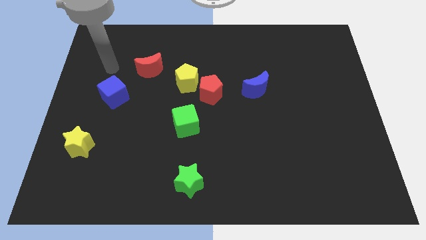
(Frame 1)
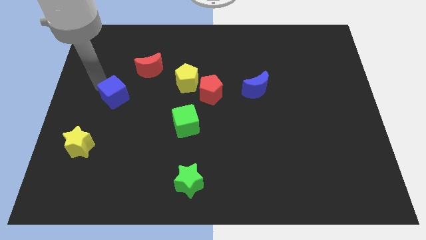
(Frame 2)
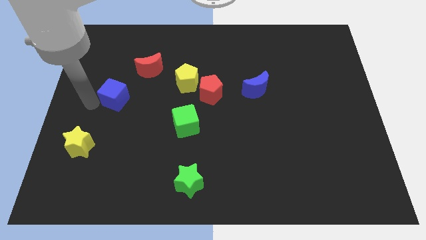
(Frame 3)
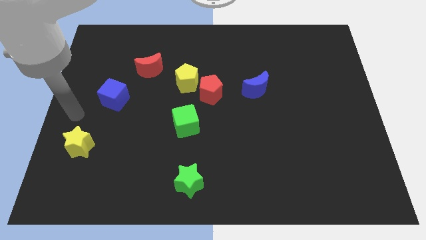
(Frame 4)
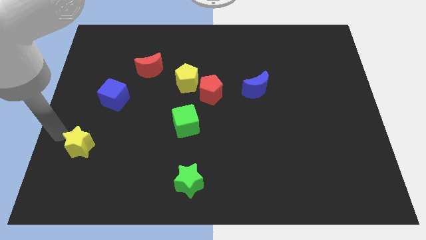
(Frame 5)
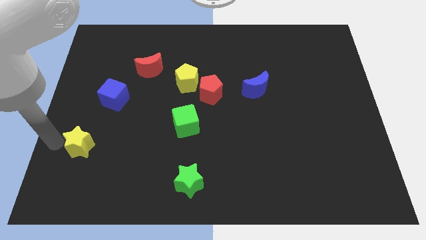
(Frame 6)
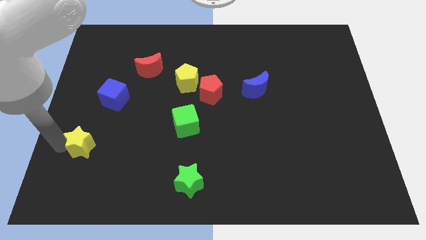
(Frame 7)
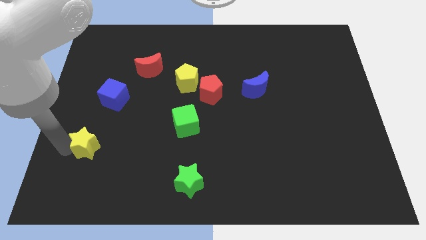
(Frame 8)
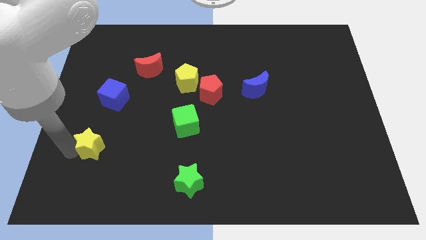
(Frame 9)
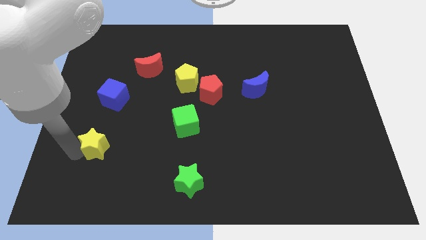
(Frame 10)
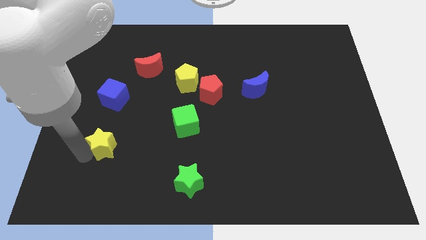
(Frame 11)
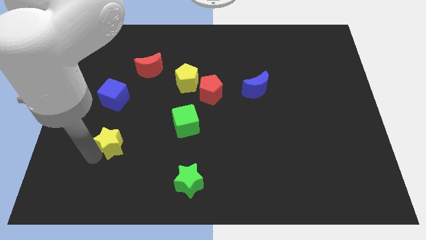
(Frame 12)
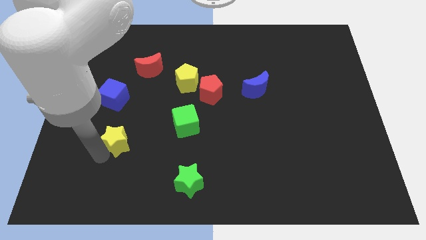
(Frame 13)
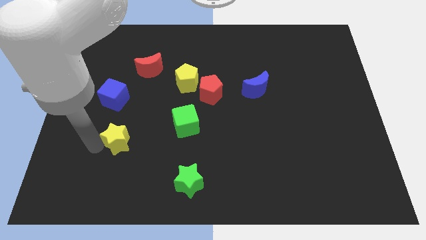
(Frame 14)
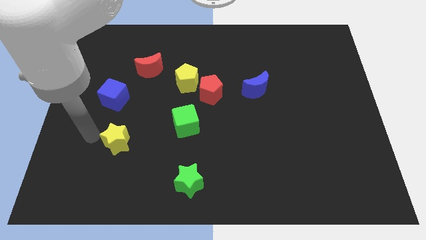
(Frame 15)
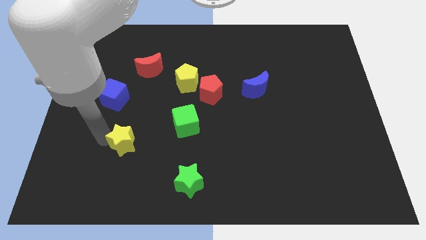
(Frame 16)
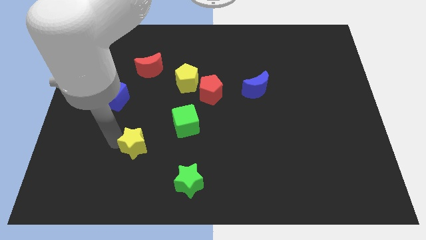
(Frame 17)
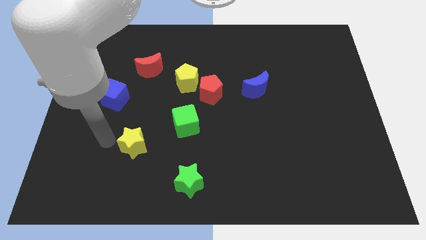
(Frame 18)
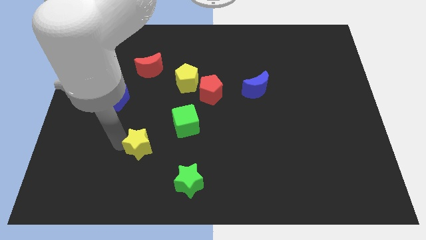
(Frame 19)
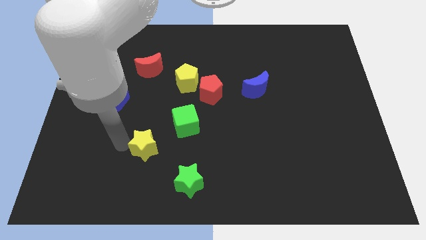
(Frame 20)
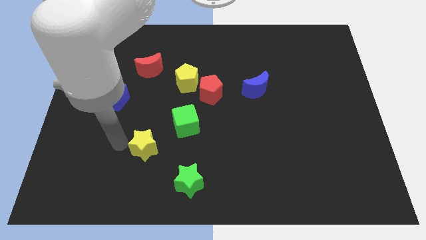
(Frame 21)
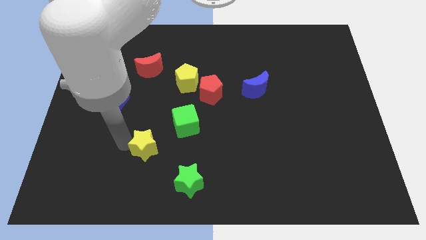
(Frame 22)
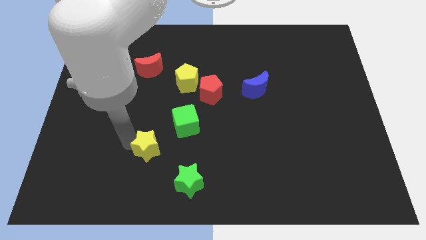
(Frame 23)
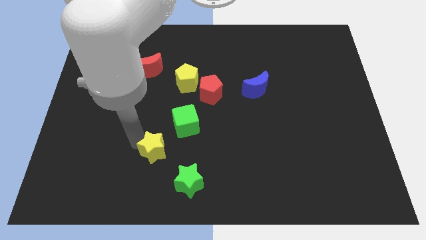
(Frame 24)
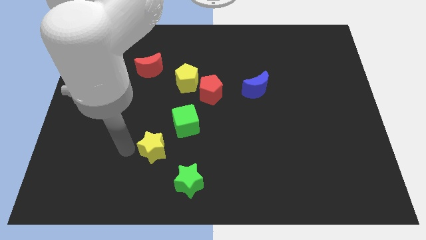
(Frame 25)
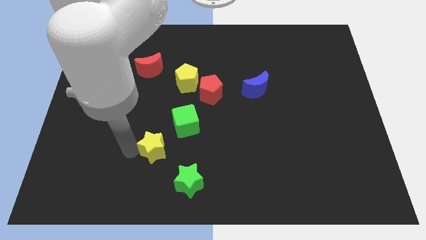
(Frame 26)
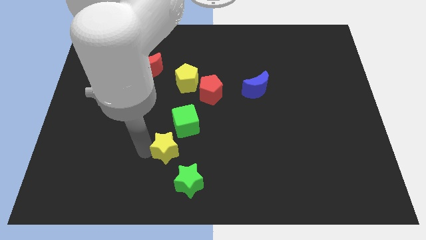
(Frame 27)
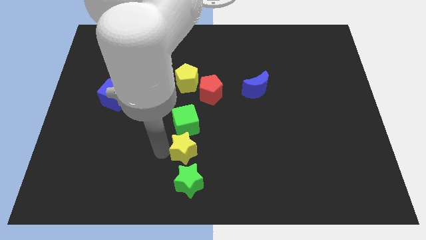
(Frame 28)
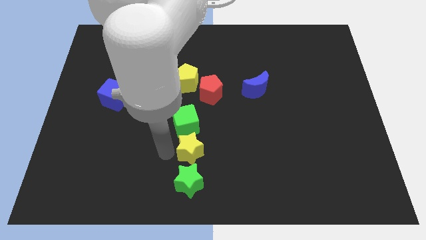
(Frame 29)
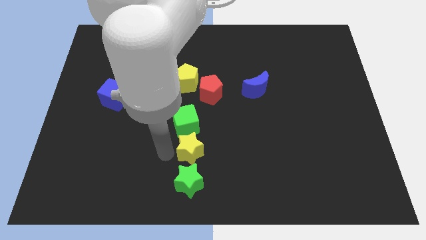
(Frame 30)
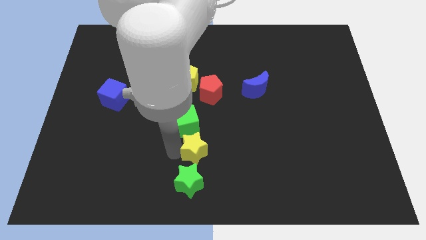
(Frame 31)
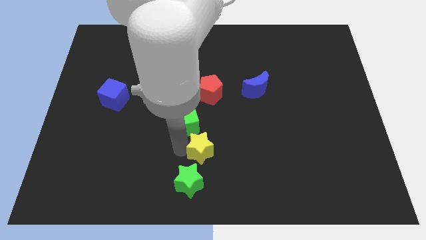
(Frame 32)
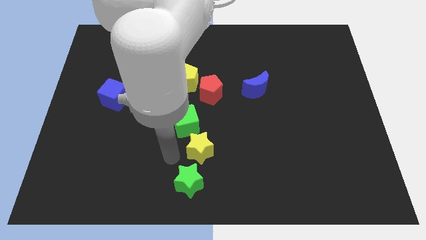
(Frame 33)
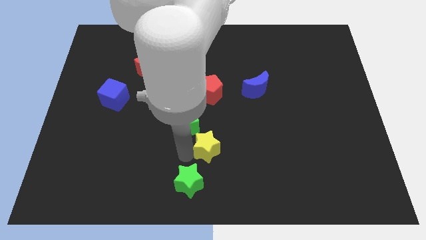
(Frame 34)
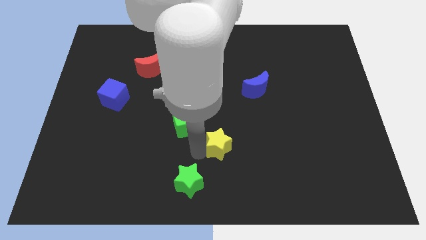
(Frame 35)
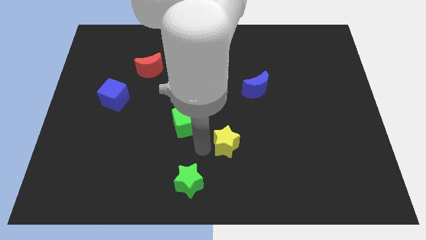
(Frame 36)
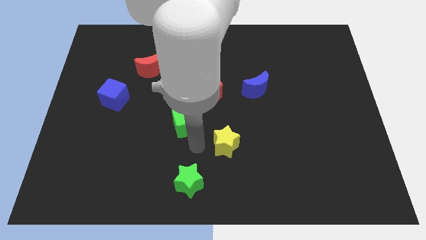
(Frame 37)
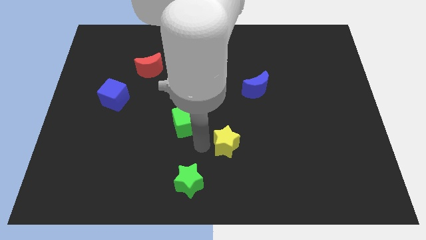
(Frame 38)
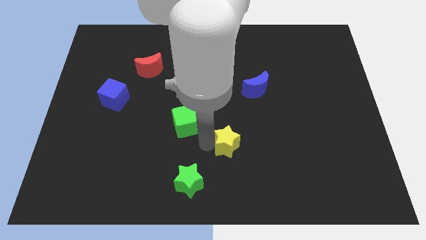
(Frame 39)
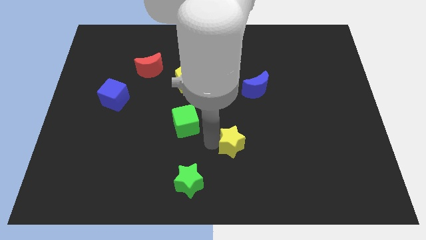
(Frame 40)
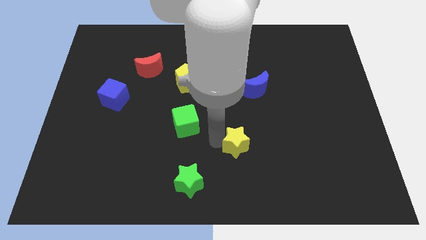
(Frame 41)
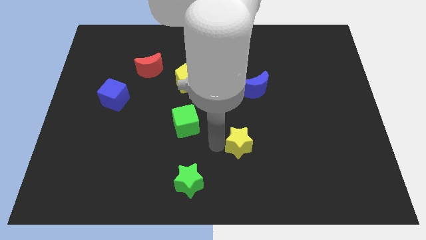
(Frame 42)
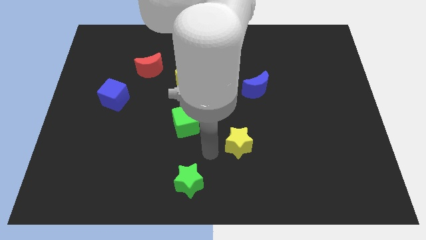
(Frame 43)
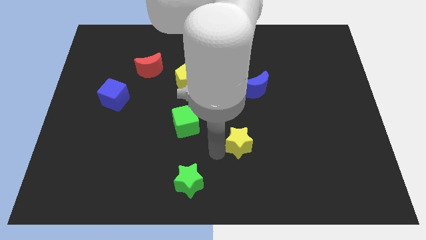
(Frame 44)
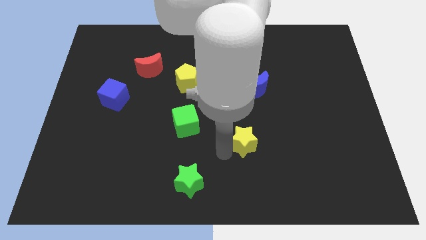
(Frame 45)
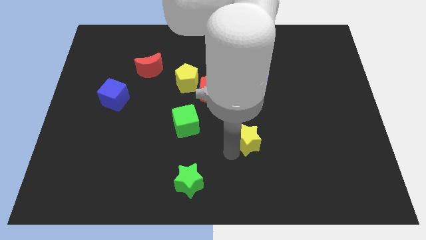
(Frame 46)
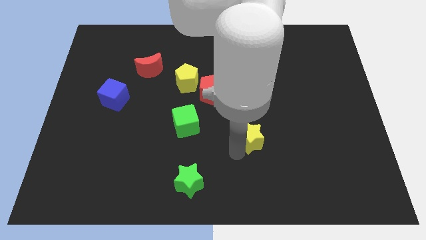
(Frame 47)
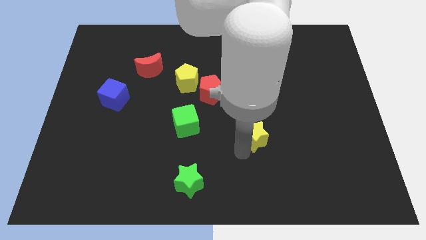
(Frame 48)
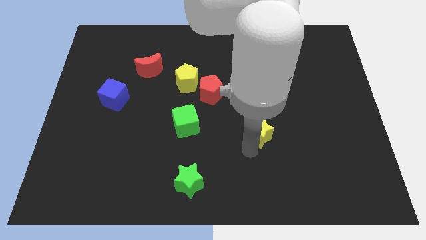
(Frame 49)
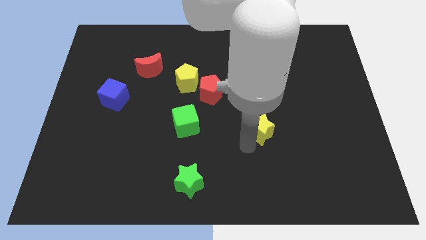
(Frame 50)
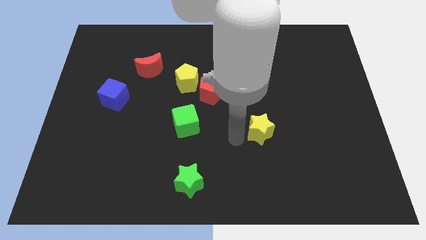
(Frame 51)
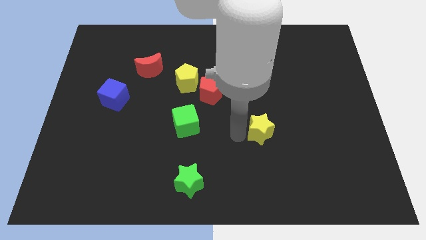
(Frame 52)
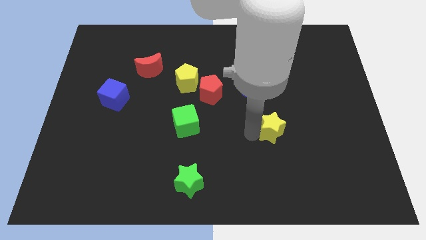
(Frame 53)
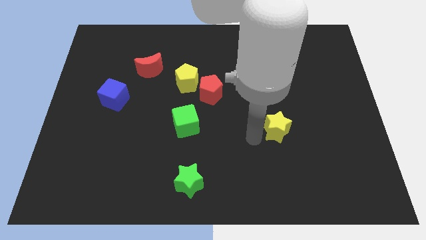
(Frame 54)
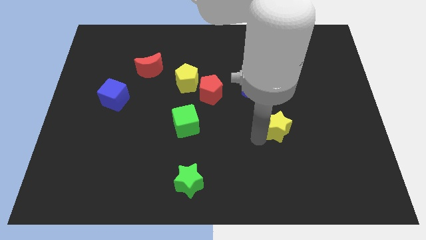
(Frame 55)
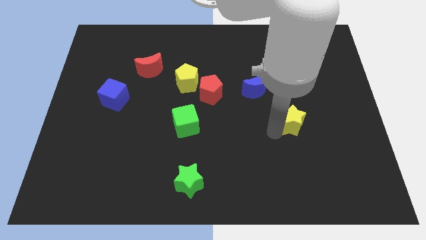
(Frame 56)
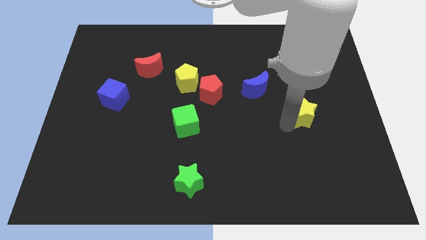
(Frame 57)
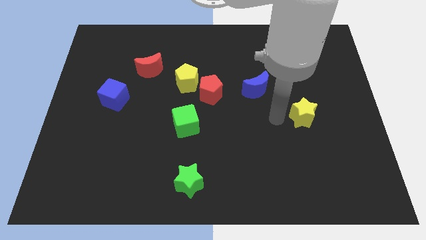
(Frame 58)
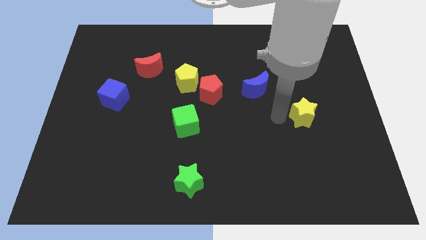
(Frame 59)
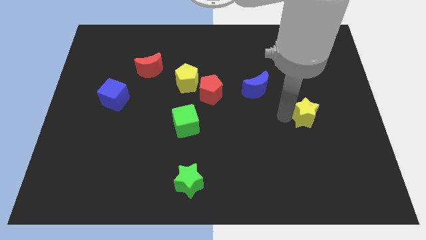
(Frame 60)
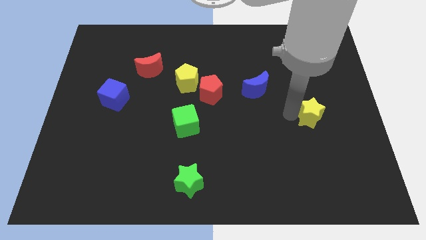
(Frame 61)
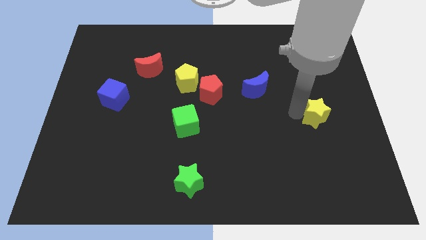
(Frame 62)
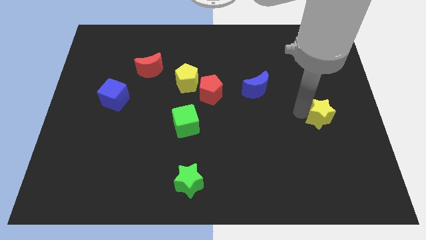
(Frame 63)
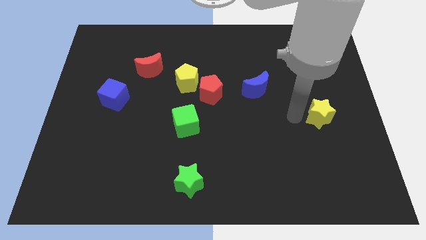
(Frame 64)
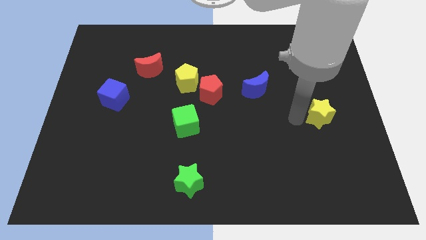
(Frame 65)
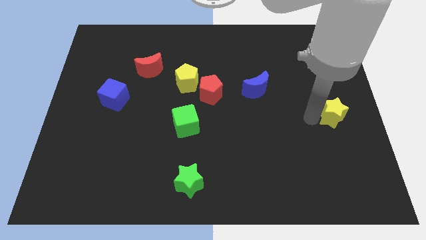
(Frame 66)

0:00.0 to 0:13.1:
move the yellow star to the center right
